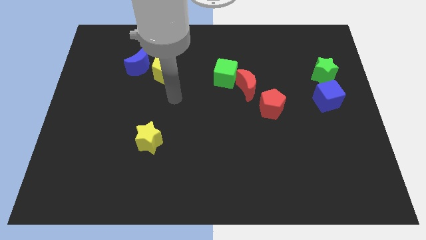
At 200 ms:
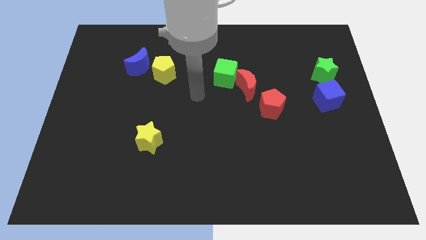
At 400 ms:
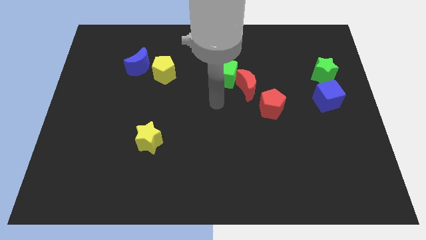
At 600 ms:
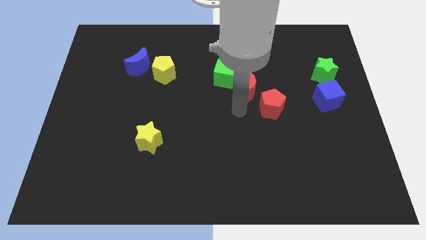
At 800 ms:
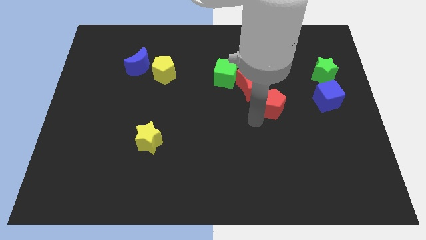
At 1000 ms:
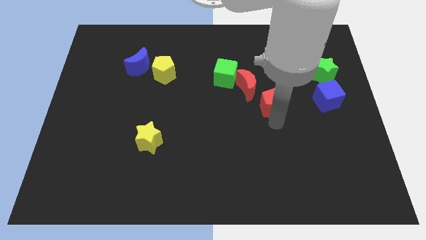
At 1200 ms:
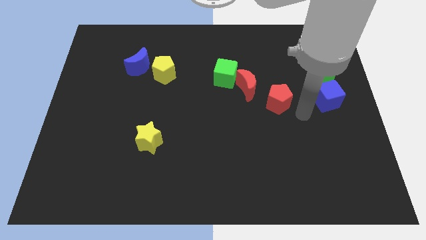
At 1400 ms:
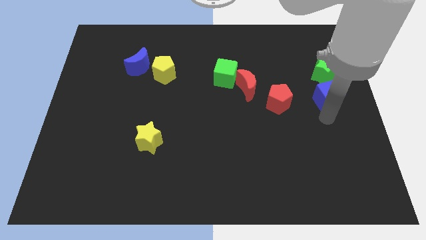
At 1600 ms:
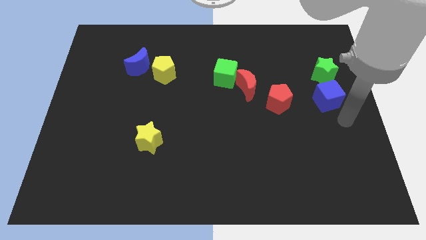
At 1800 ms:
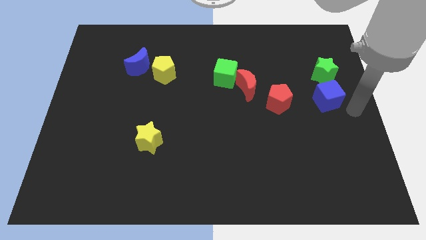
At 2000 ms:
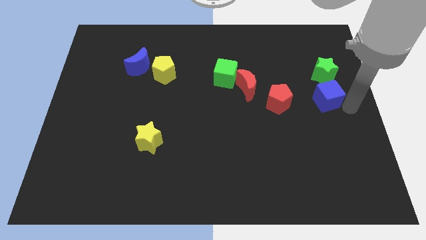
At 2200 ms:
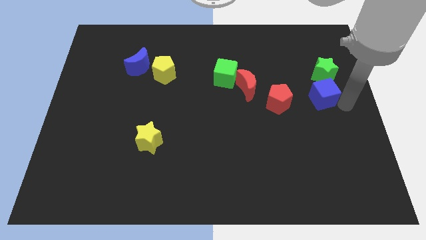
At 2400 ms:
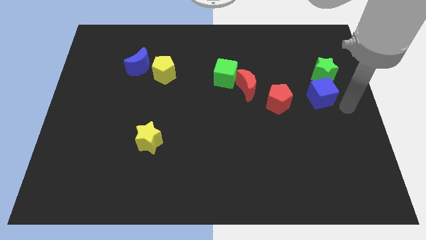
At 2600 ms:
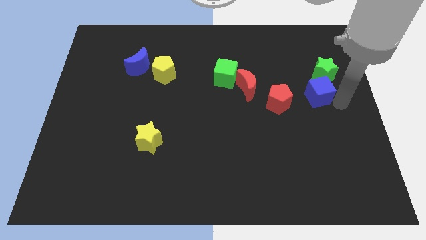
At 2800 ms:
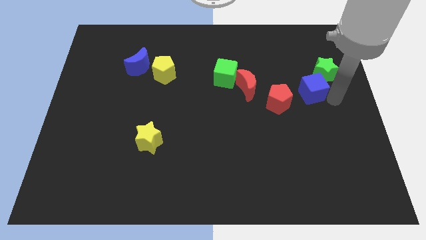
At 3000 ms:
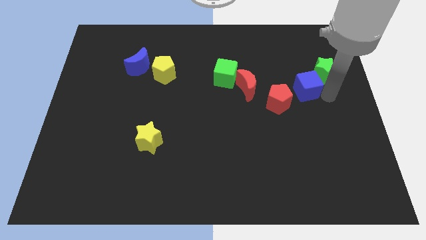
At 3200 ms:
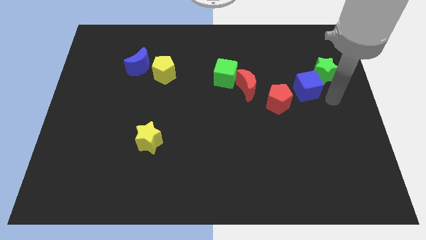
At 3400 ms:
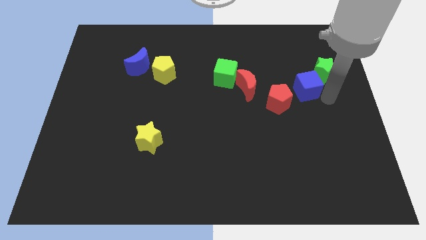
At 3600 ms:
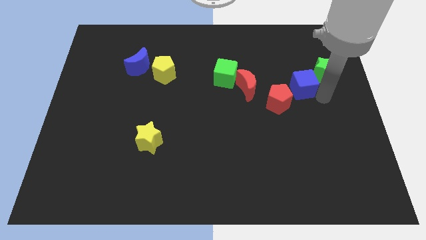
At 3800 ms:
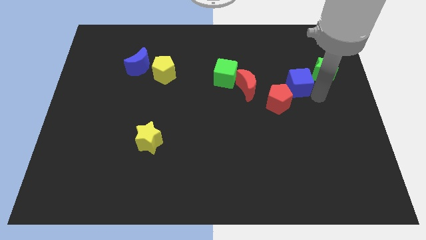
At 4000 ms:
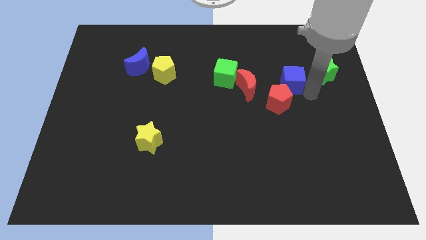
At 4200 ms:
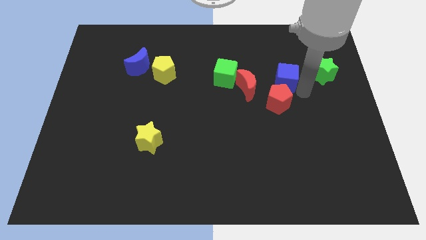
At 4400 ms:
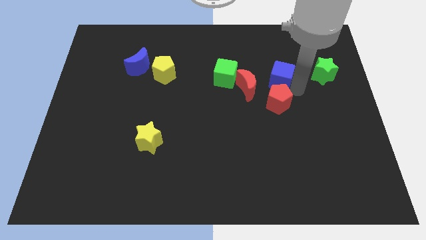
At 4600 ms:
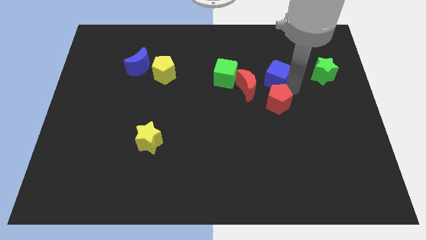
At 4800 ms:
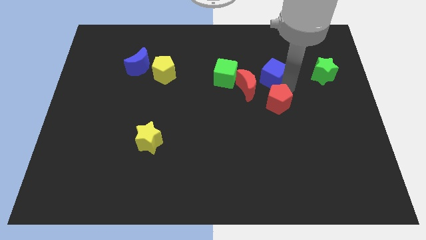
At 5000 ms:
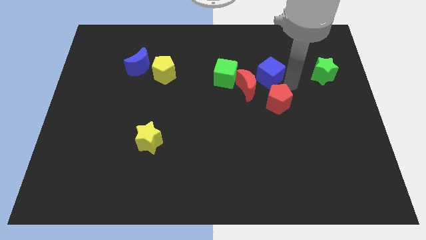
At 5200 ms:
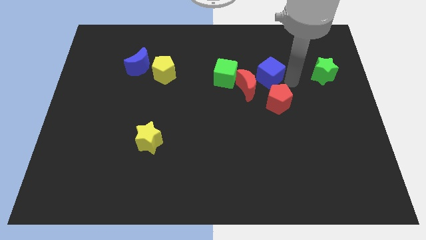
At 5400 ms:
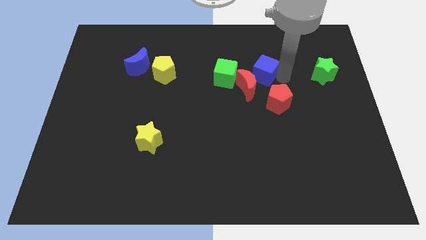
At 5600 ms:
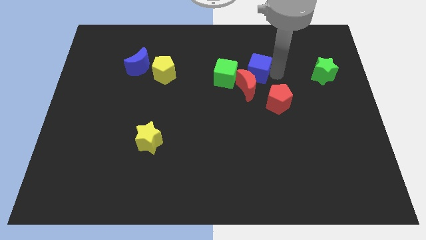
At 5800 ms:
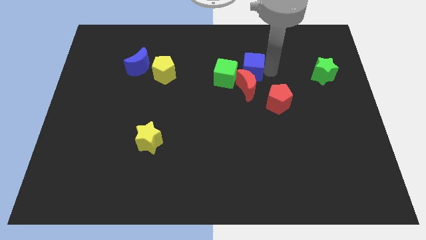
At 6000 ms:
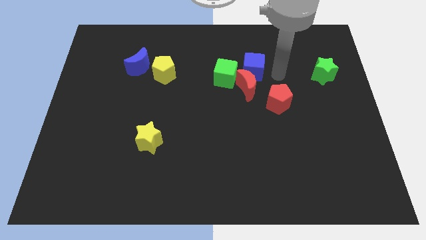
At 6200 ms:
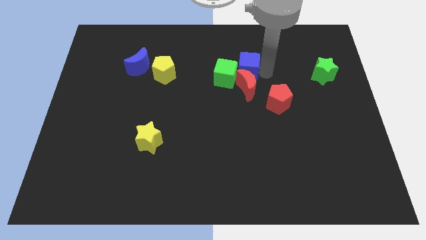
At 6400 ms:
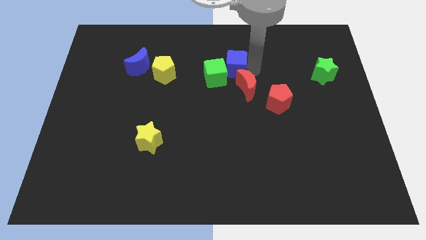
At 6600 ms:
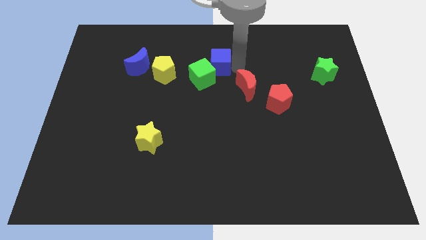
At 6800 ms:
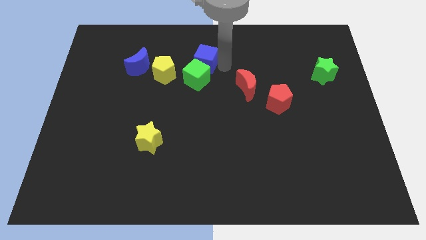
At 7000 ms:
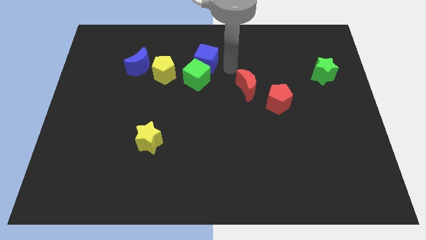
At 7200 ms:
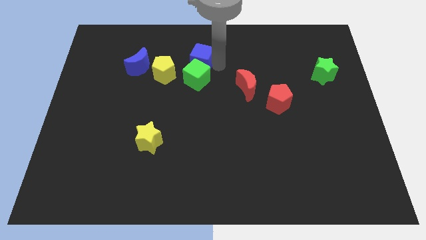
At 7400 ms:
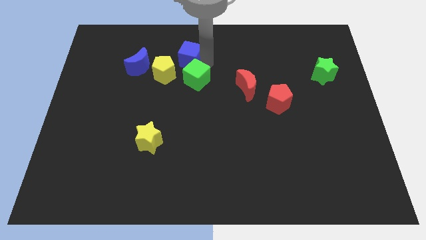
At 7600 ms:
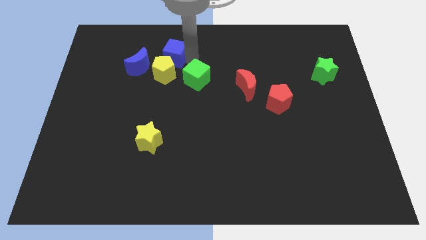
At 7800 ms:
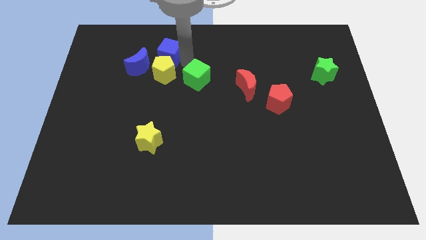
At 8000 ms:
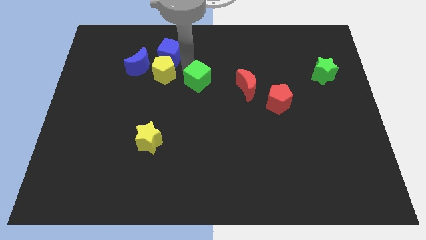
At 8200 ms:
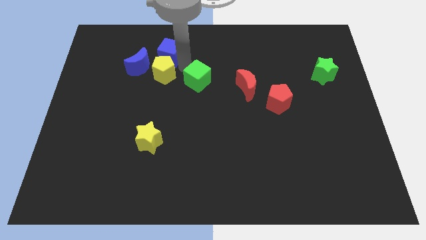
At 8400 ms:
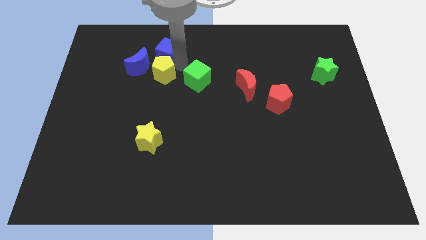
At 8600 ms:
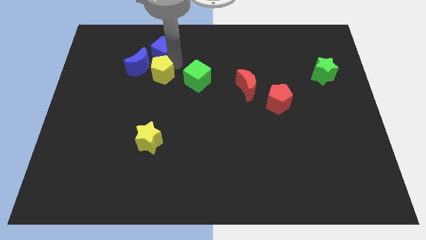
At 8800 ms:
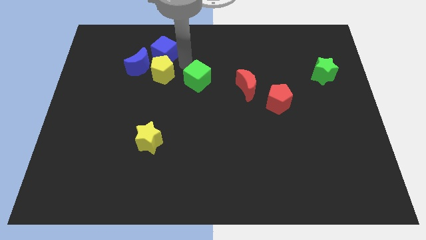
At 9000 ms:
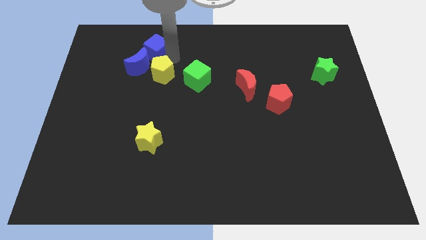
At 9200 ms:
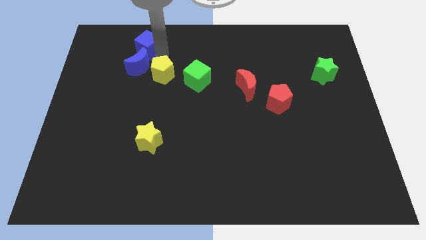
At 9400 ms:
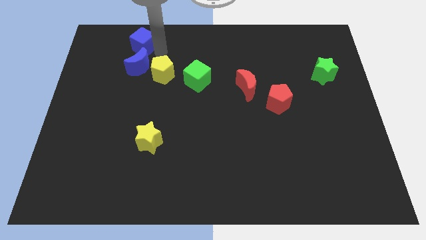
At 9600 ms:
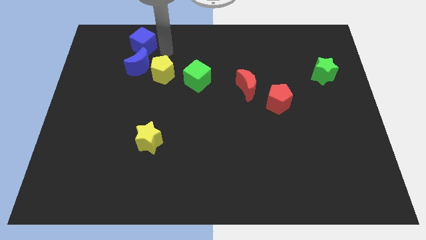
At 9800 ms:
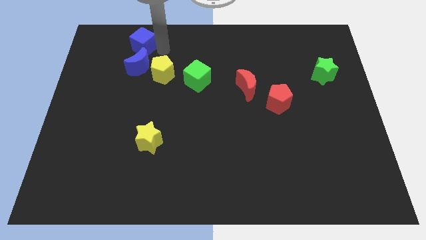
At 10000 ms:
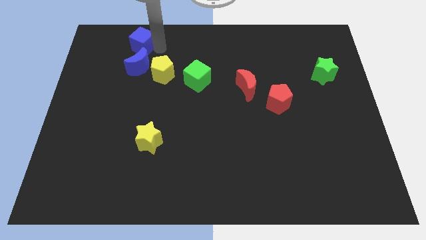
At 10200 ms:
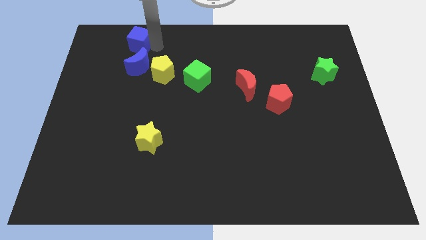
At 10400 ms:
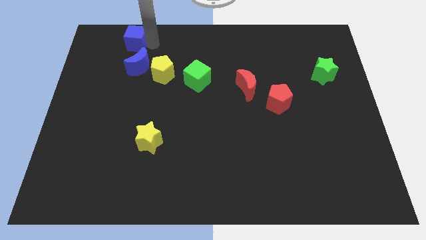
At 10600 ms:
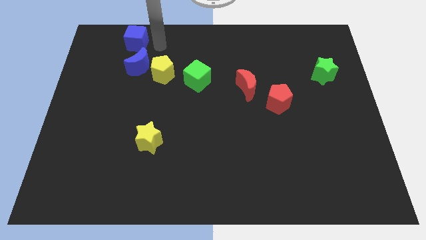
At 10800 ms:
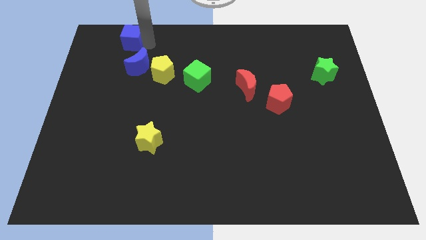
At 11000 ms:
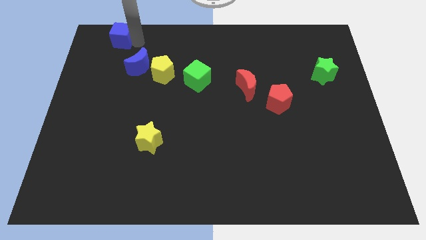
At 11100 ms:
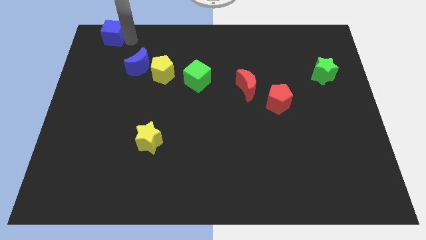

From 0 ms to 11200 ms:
slide the blue cube to the top left corner
